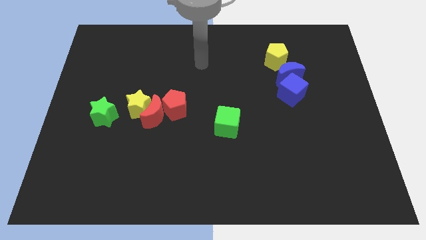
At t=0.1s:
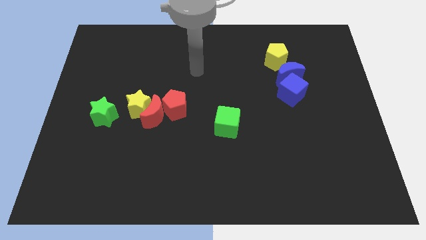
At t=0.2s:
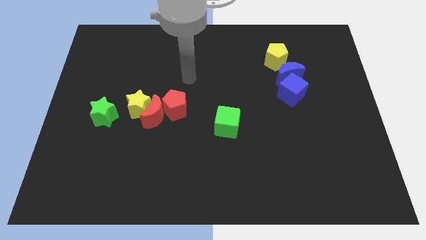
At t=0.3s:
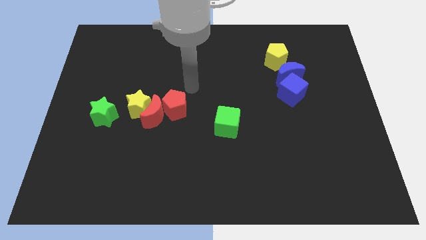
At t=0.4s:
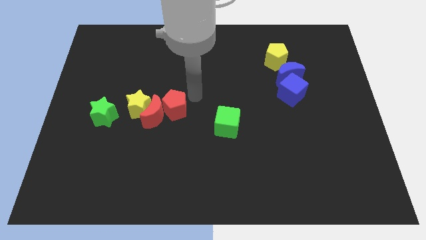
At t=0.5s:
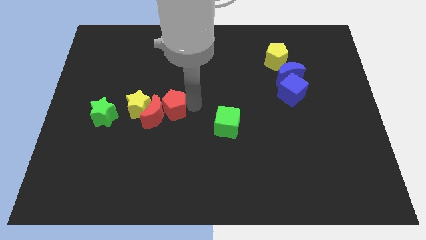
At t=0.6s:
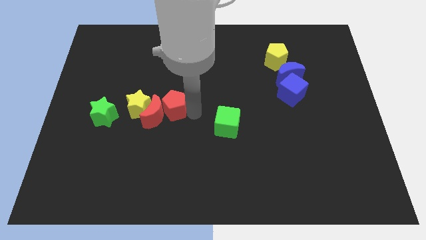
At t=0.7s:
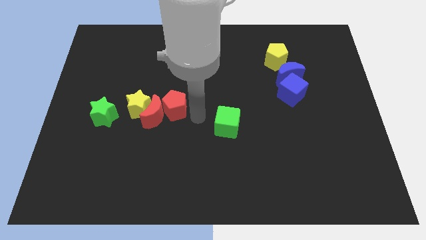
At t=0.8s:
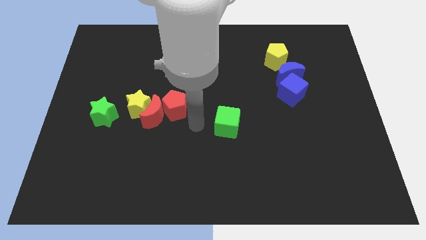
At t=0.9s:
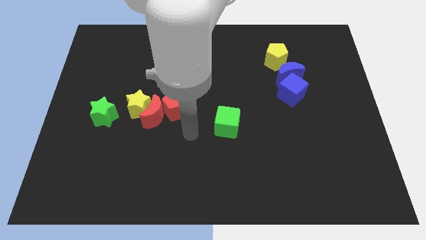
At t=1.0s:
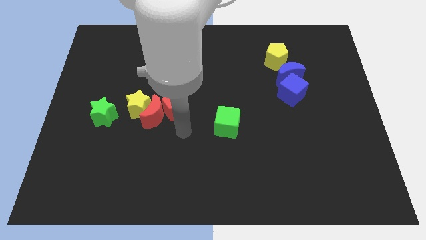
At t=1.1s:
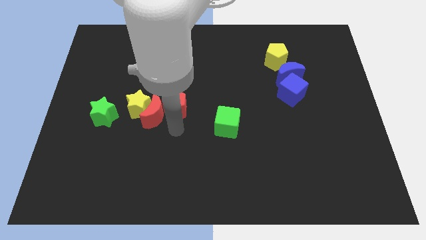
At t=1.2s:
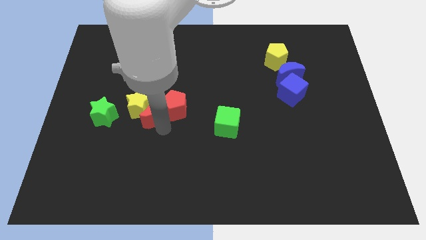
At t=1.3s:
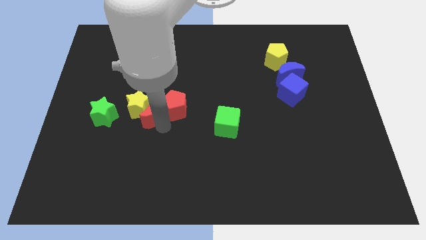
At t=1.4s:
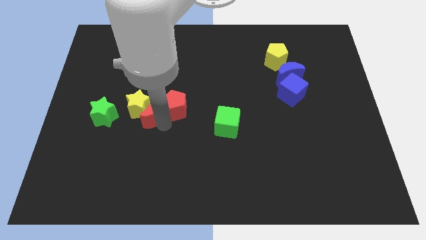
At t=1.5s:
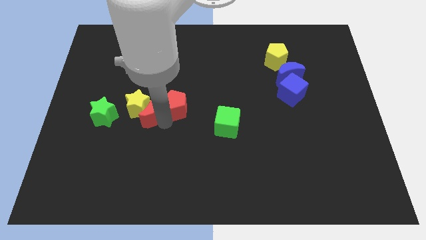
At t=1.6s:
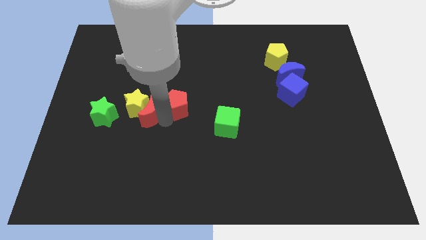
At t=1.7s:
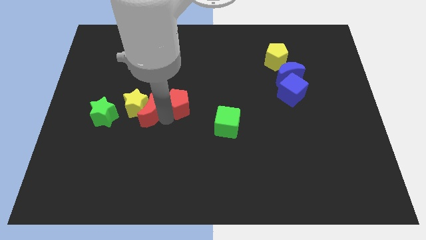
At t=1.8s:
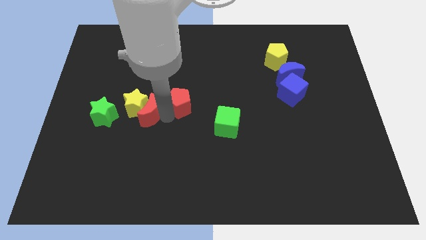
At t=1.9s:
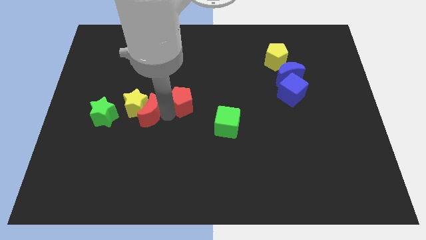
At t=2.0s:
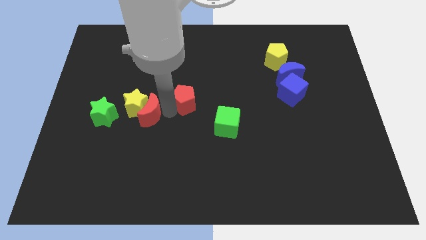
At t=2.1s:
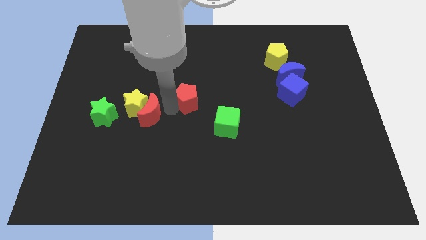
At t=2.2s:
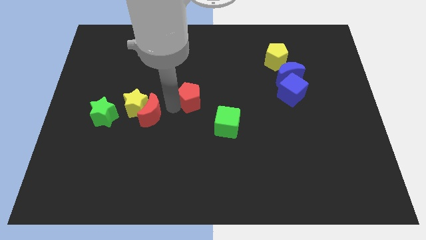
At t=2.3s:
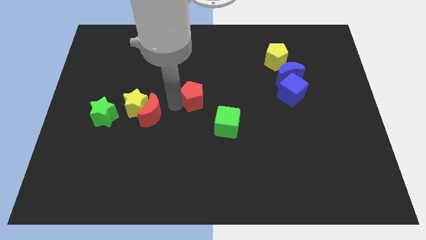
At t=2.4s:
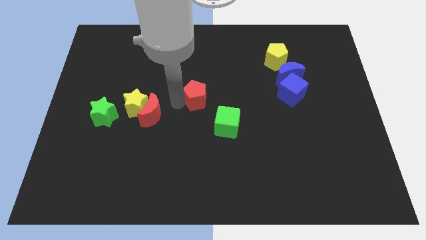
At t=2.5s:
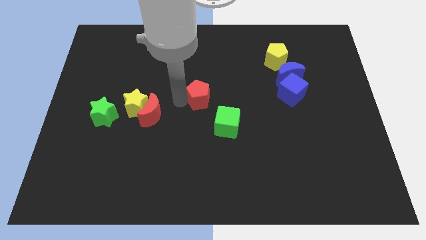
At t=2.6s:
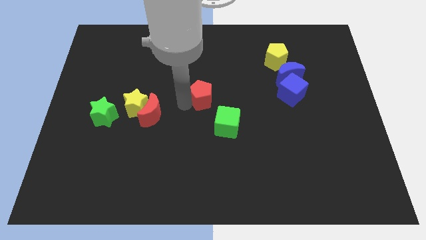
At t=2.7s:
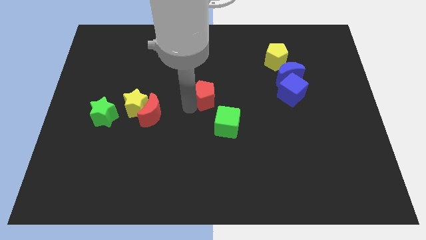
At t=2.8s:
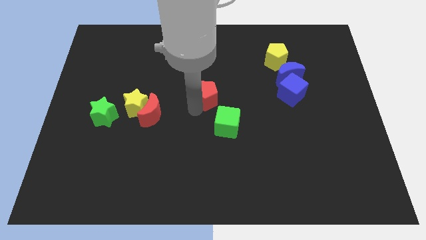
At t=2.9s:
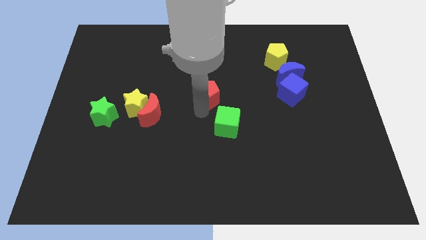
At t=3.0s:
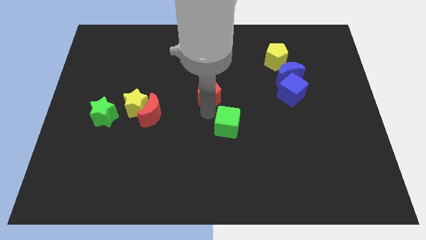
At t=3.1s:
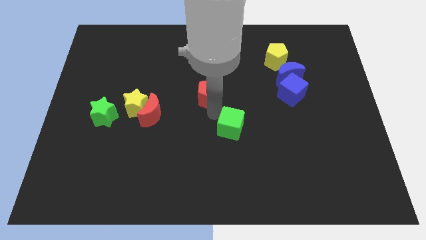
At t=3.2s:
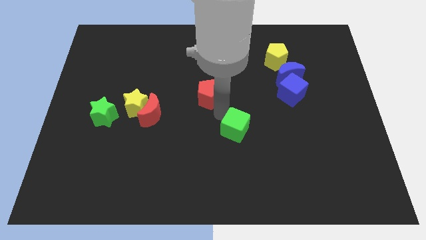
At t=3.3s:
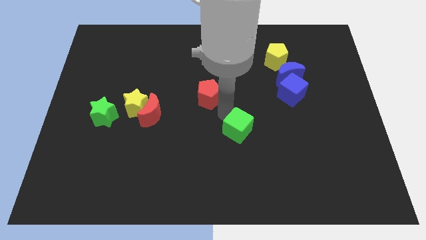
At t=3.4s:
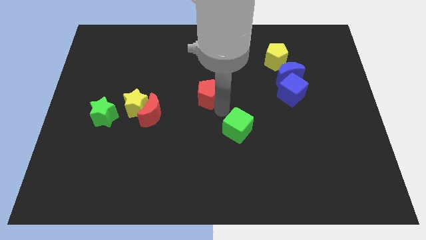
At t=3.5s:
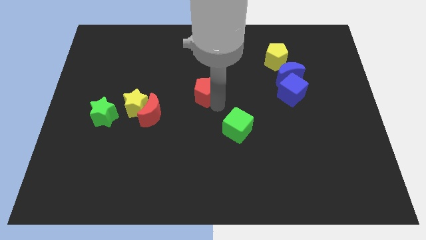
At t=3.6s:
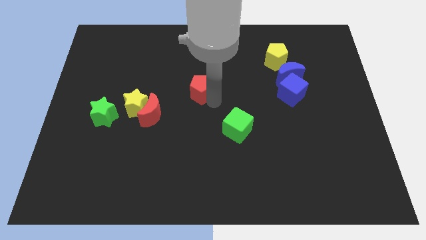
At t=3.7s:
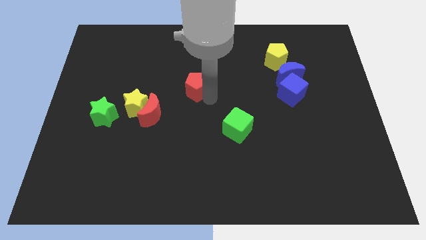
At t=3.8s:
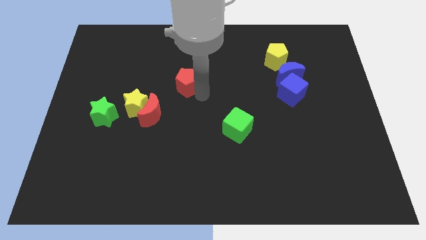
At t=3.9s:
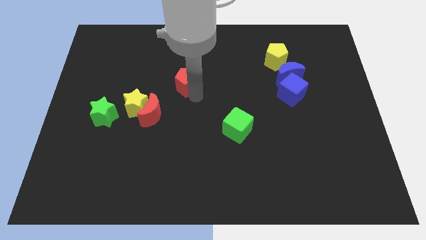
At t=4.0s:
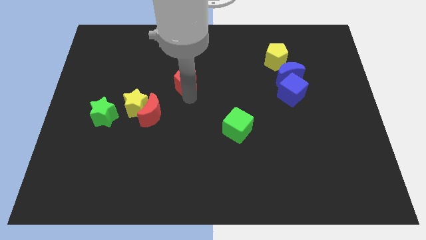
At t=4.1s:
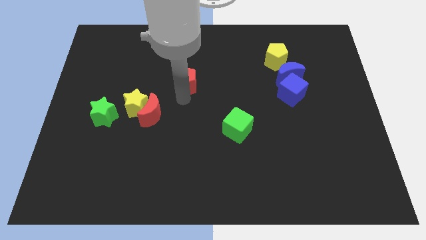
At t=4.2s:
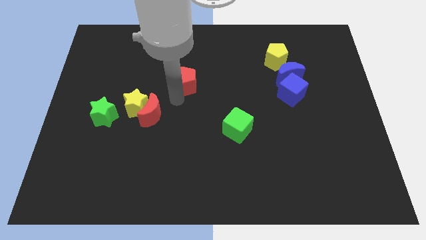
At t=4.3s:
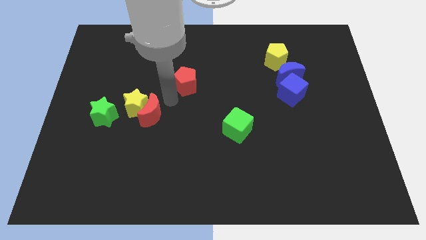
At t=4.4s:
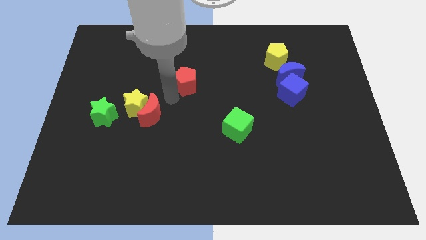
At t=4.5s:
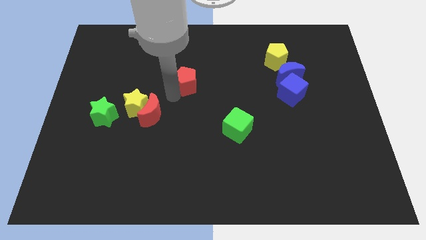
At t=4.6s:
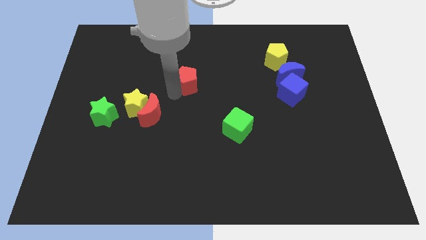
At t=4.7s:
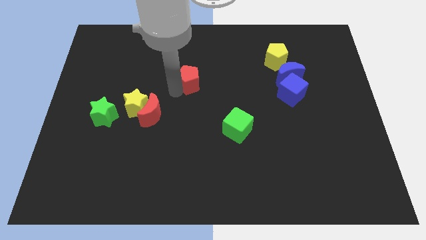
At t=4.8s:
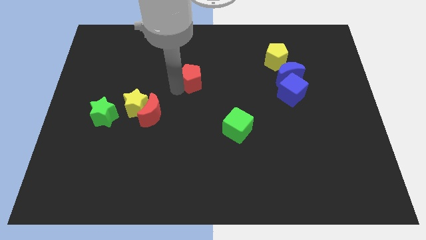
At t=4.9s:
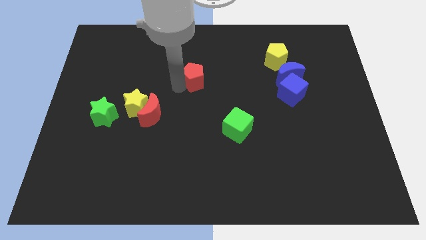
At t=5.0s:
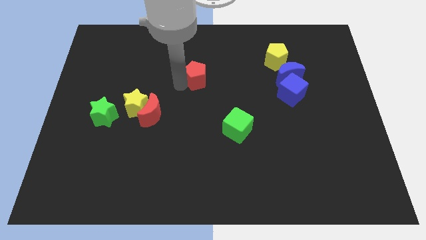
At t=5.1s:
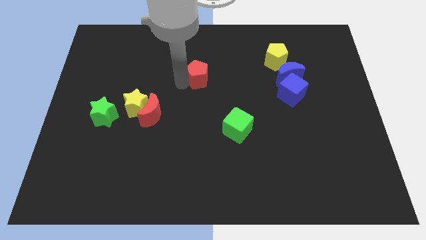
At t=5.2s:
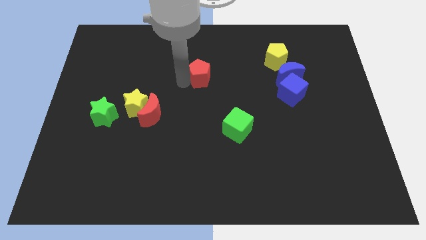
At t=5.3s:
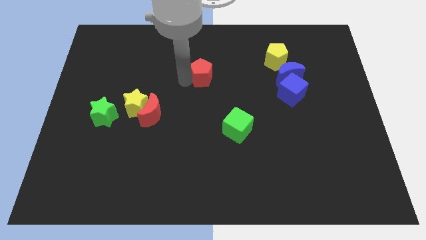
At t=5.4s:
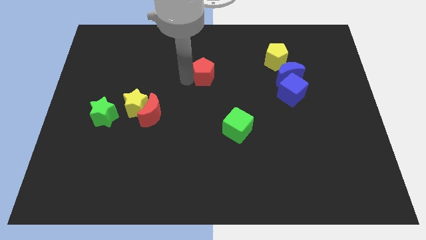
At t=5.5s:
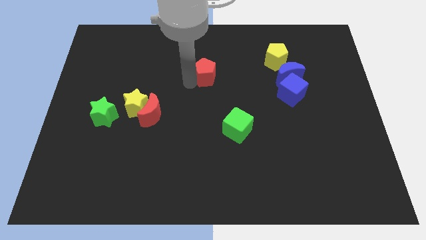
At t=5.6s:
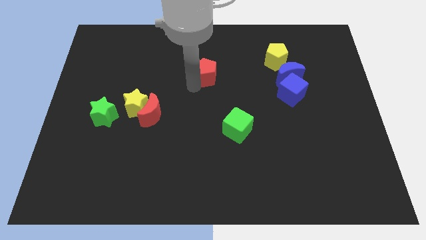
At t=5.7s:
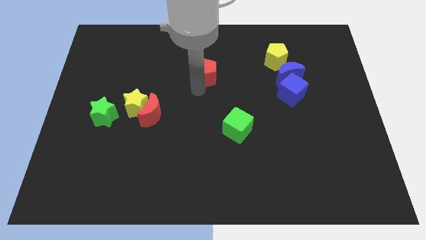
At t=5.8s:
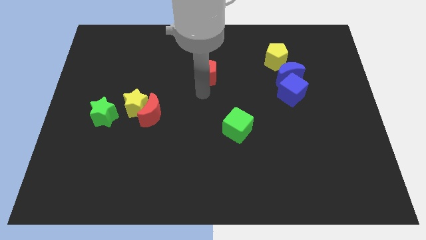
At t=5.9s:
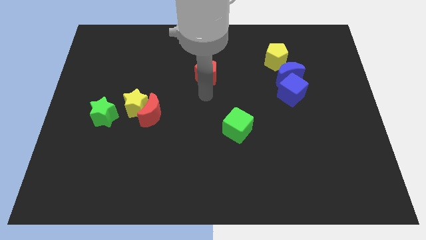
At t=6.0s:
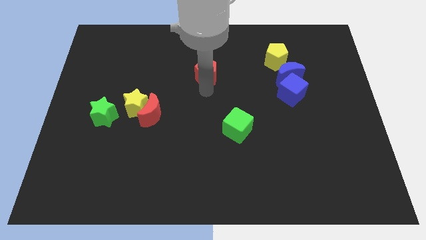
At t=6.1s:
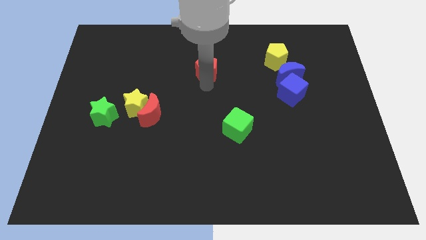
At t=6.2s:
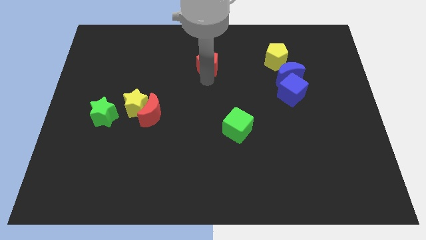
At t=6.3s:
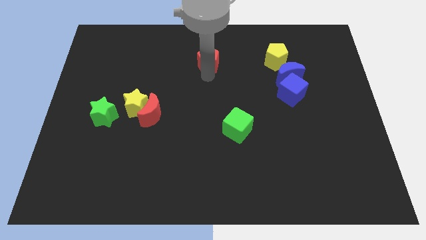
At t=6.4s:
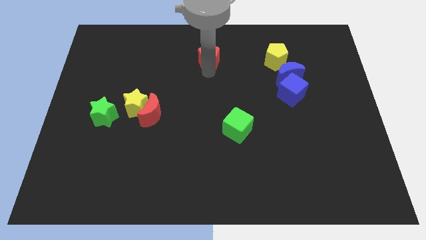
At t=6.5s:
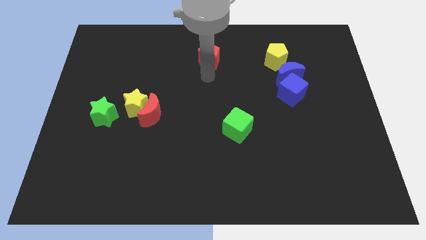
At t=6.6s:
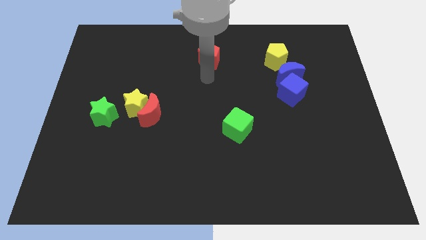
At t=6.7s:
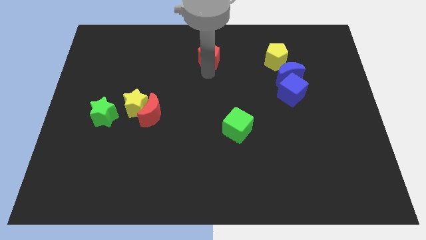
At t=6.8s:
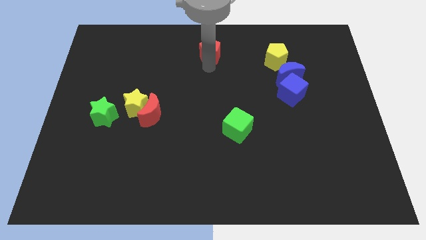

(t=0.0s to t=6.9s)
slide the red pentagon to the top side

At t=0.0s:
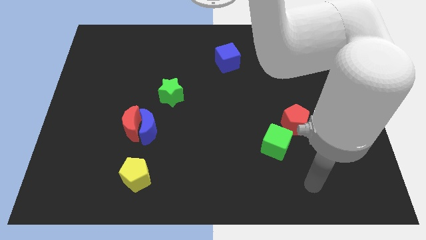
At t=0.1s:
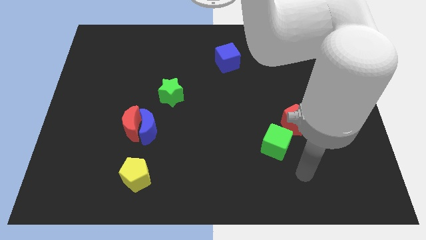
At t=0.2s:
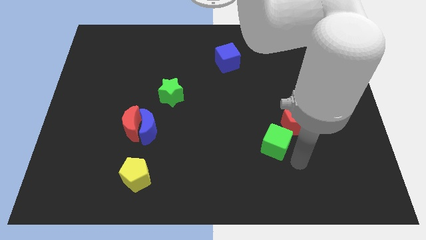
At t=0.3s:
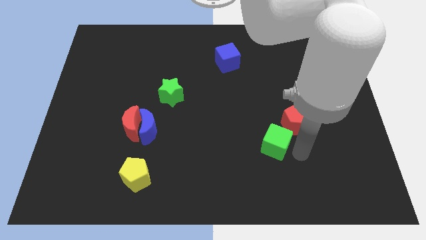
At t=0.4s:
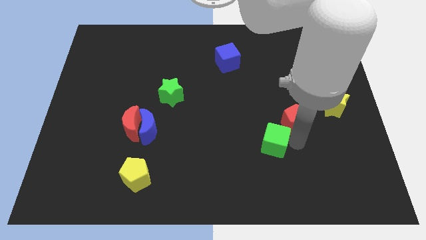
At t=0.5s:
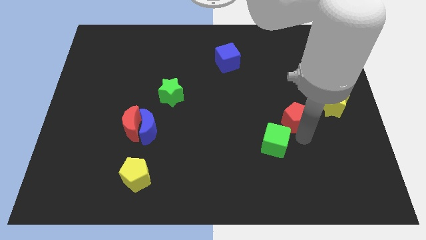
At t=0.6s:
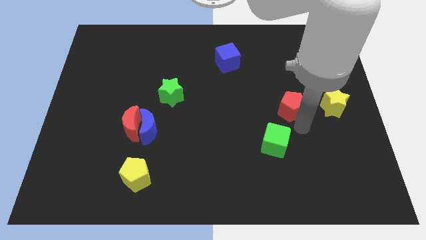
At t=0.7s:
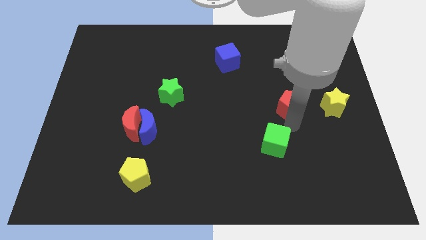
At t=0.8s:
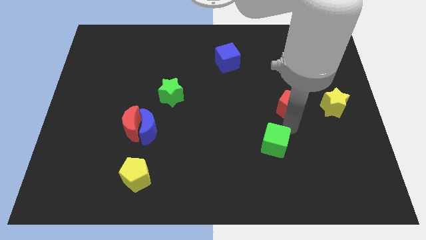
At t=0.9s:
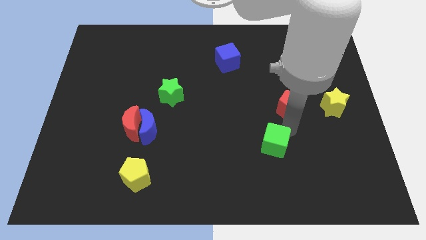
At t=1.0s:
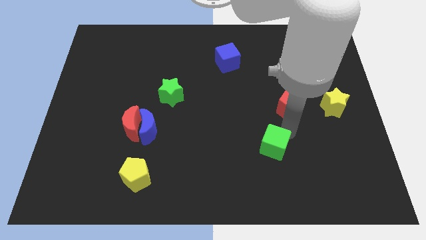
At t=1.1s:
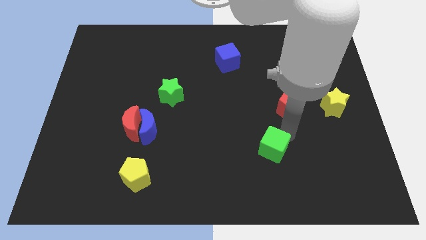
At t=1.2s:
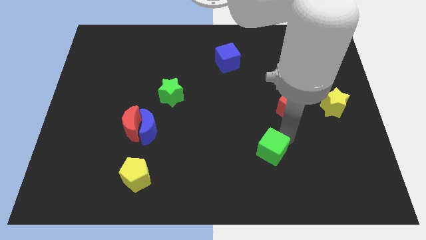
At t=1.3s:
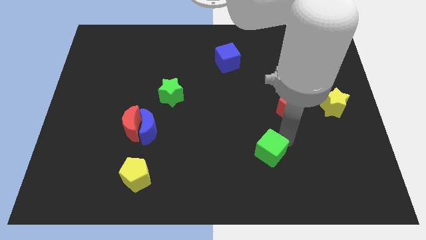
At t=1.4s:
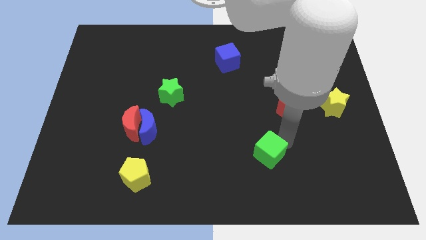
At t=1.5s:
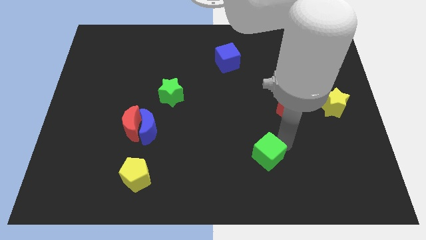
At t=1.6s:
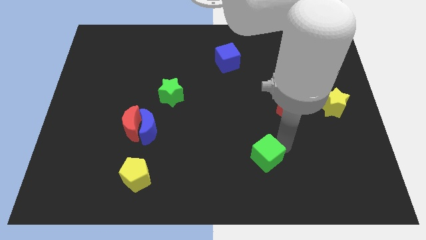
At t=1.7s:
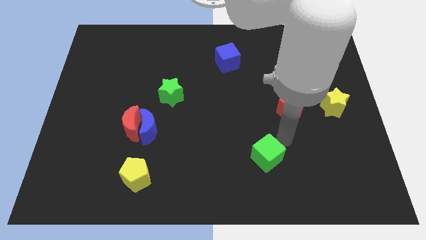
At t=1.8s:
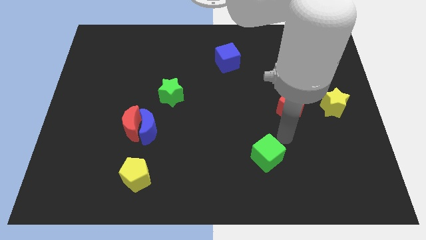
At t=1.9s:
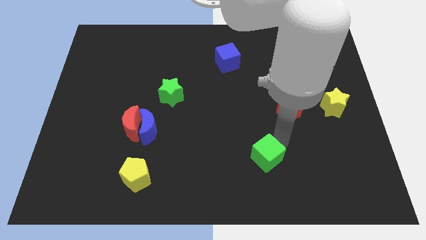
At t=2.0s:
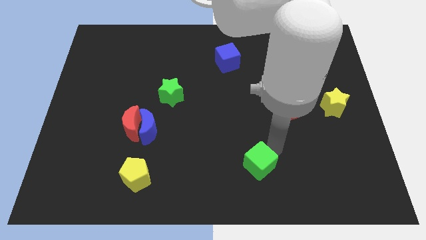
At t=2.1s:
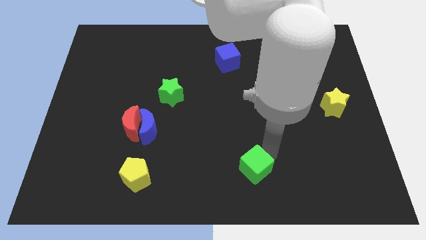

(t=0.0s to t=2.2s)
move the green cube to the bottom
